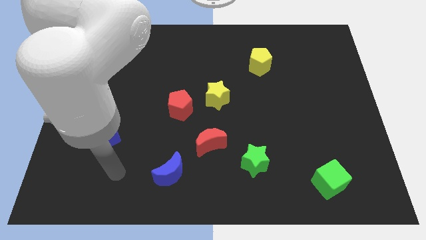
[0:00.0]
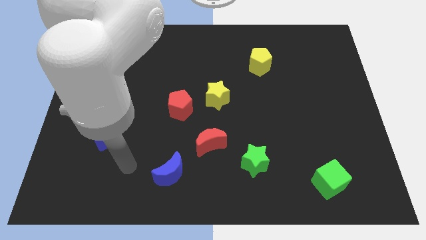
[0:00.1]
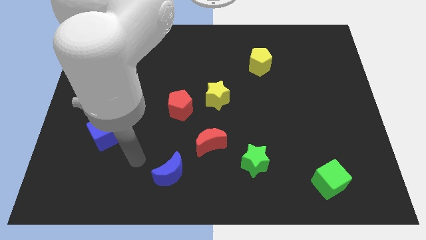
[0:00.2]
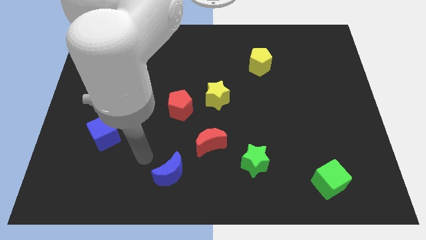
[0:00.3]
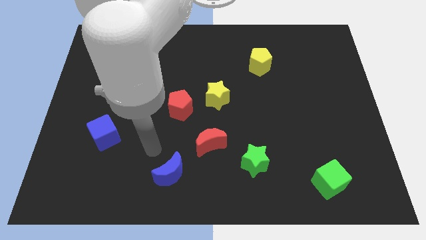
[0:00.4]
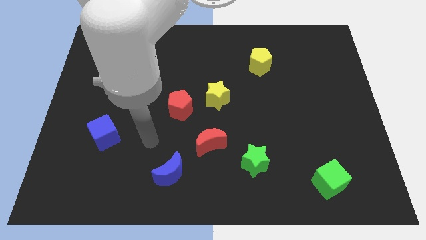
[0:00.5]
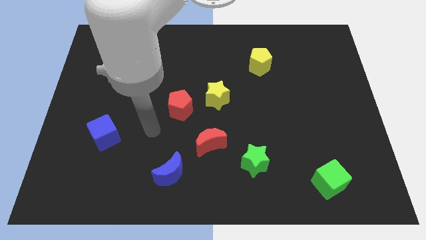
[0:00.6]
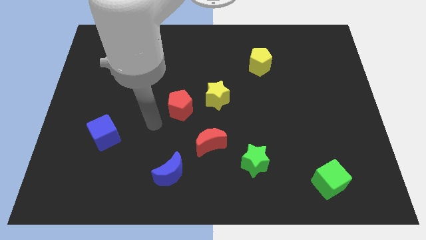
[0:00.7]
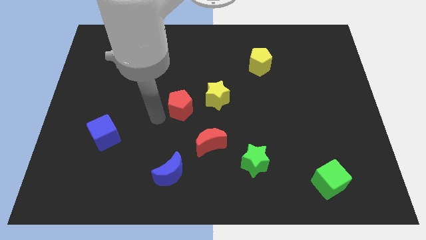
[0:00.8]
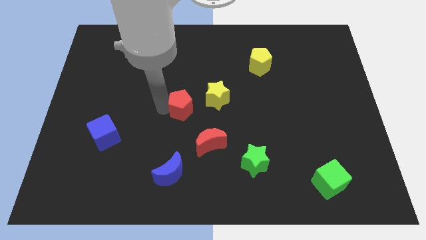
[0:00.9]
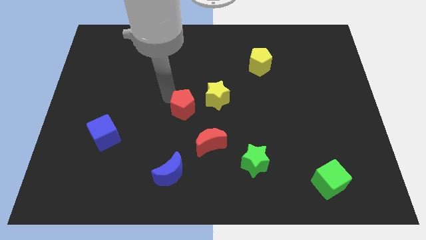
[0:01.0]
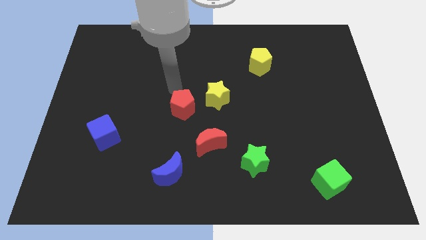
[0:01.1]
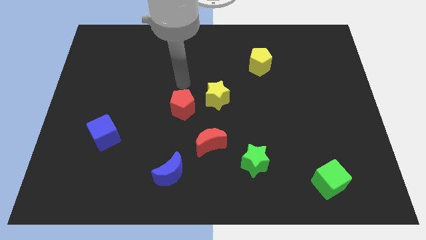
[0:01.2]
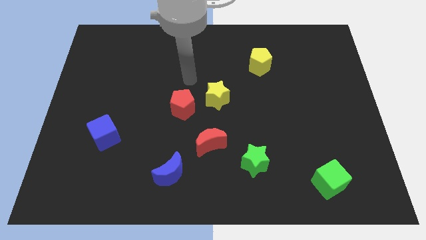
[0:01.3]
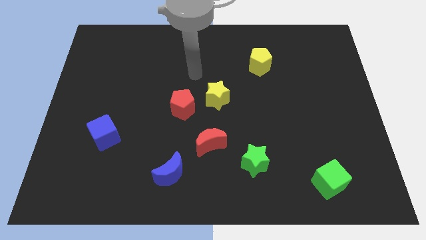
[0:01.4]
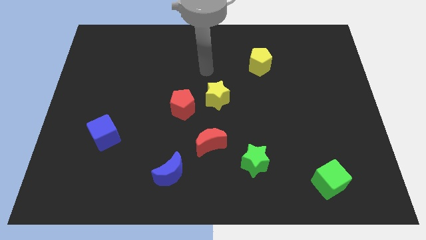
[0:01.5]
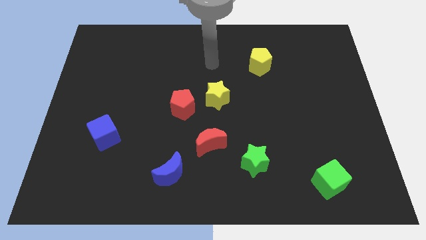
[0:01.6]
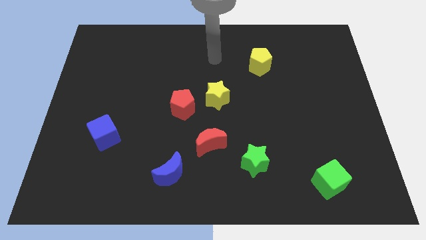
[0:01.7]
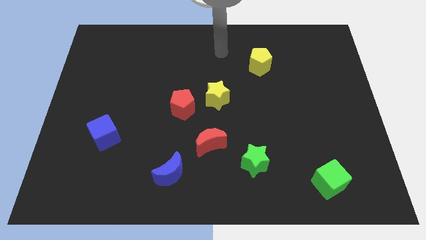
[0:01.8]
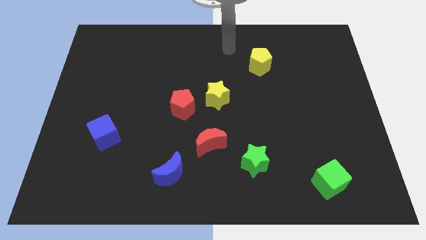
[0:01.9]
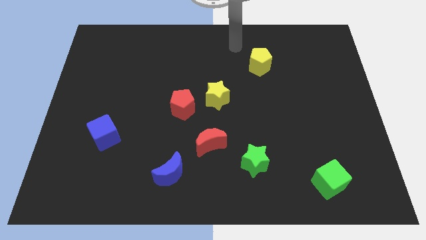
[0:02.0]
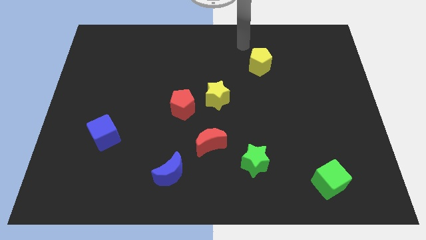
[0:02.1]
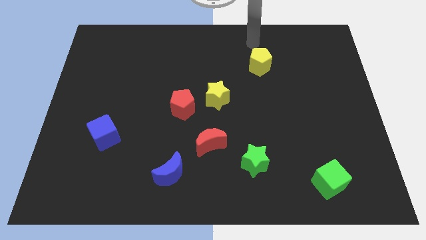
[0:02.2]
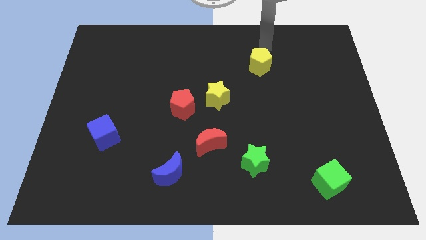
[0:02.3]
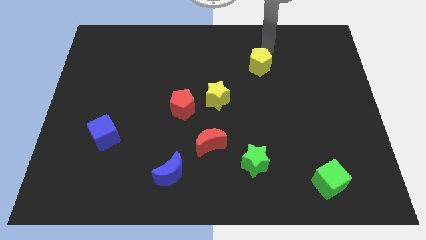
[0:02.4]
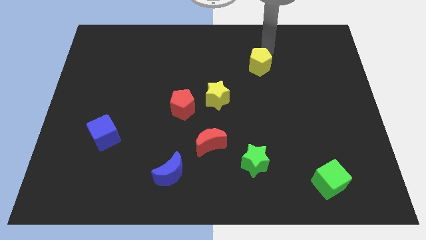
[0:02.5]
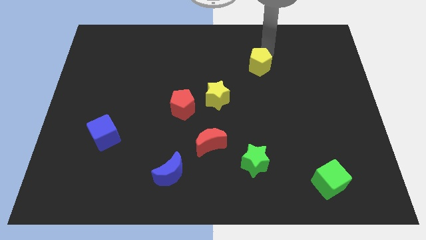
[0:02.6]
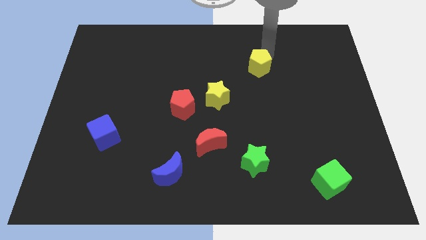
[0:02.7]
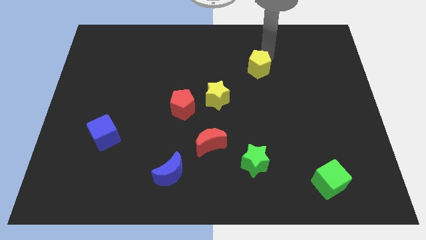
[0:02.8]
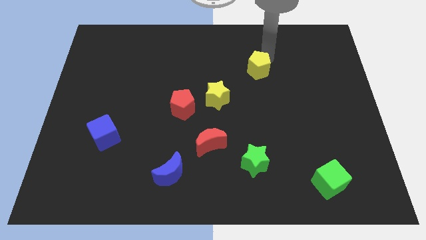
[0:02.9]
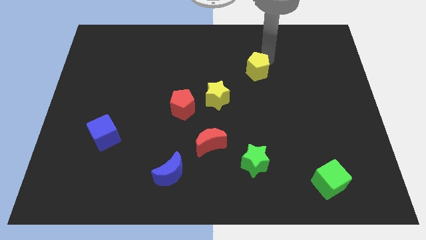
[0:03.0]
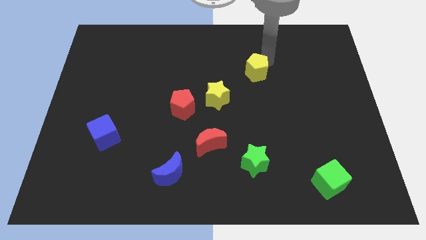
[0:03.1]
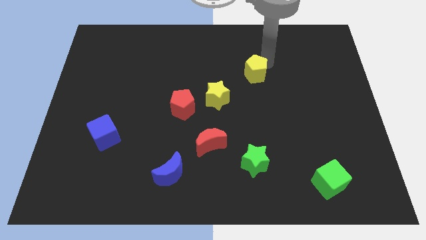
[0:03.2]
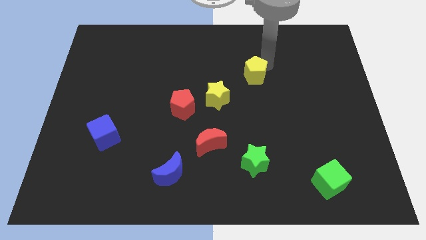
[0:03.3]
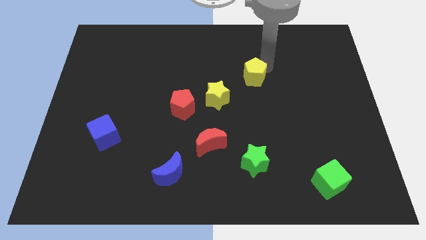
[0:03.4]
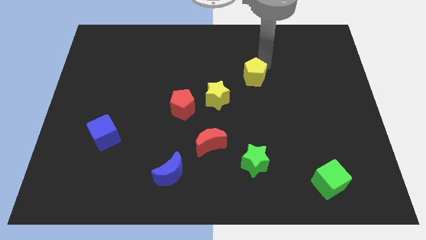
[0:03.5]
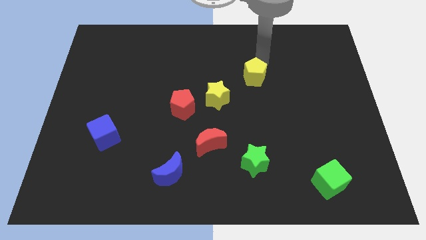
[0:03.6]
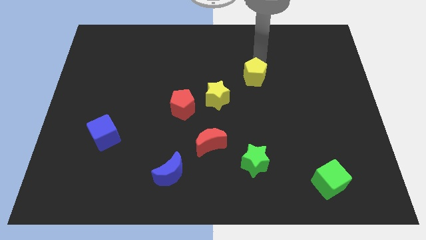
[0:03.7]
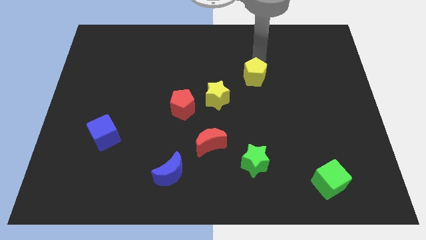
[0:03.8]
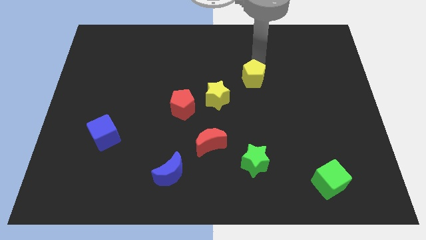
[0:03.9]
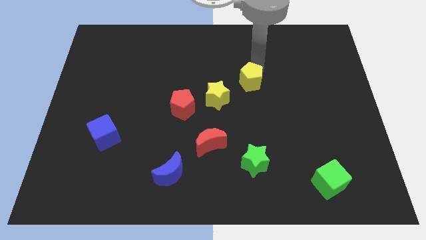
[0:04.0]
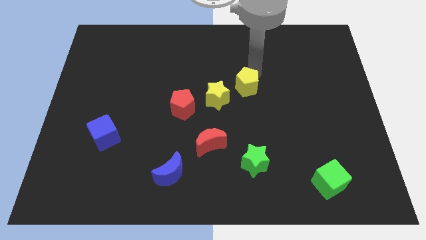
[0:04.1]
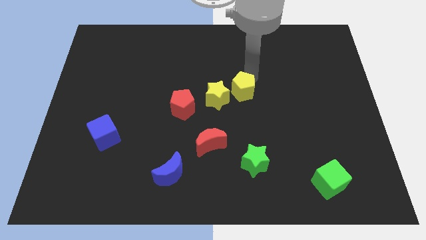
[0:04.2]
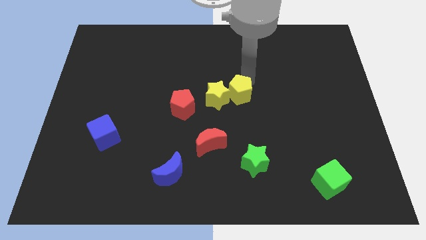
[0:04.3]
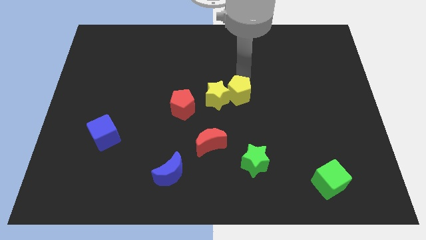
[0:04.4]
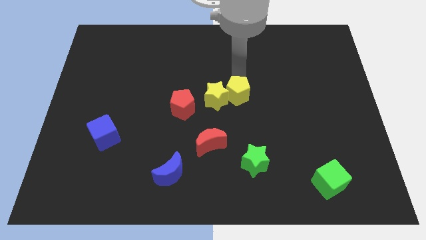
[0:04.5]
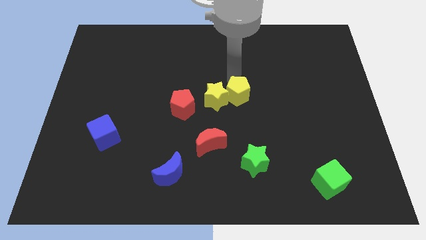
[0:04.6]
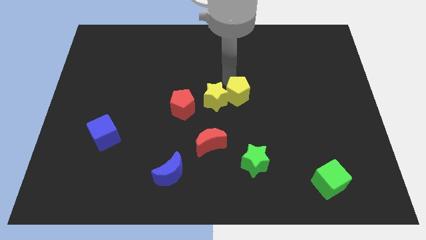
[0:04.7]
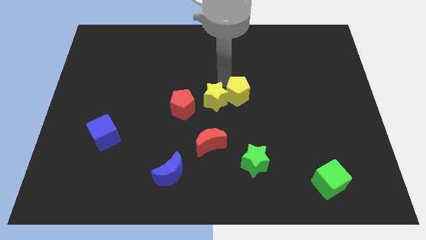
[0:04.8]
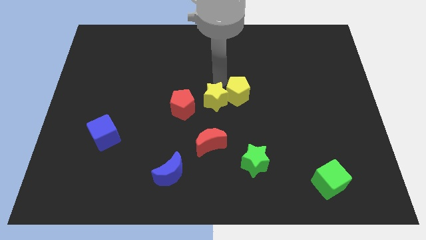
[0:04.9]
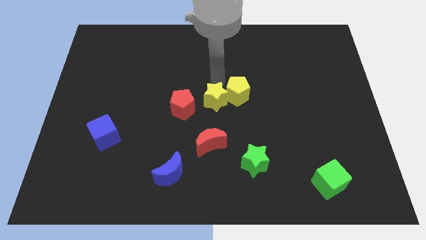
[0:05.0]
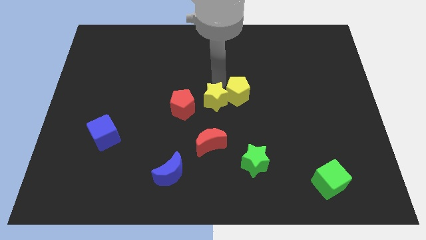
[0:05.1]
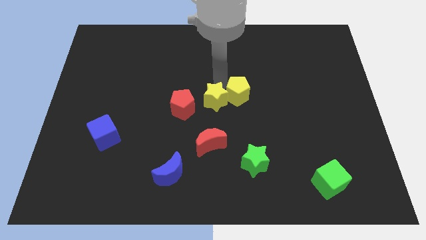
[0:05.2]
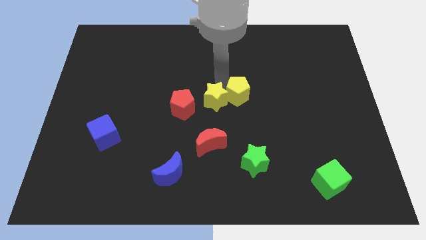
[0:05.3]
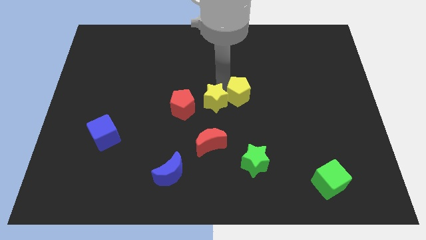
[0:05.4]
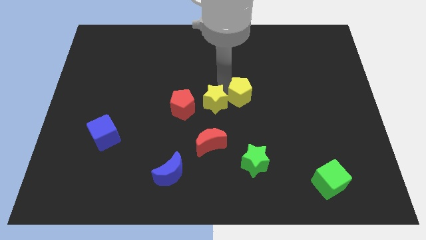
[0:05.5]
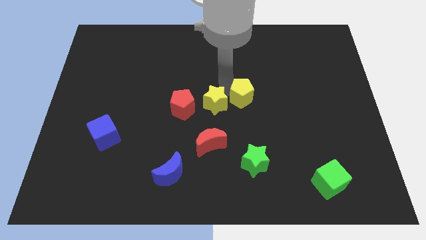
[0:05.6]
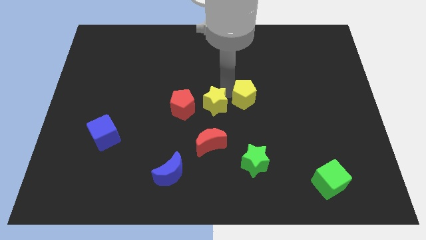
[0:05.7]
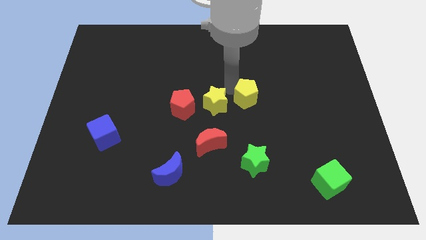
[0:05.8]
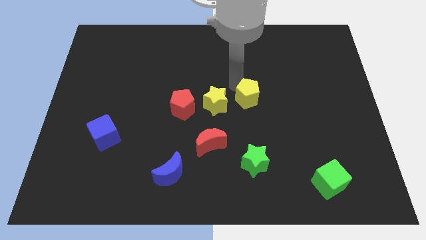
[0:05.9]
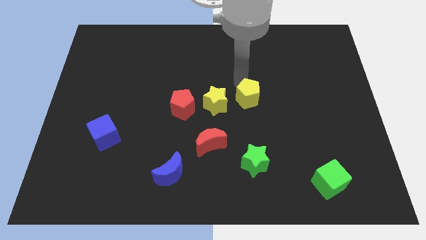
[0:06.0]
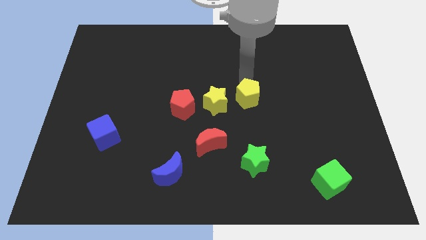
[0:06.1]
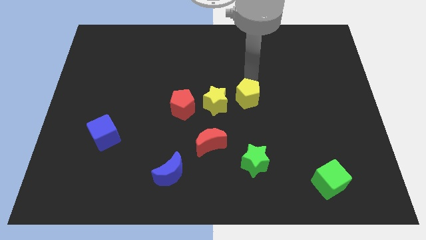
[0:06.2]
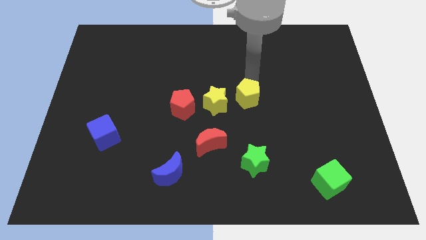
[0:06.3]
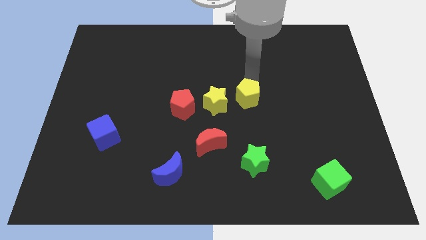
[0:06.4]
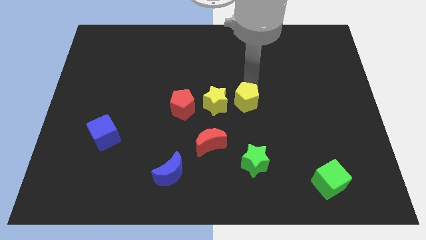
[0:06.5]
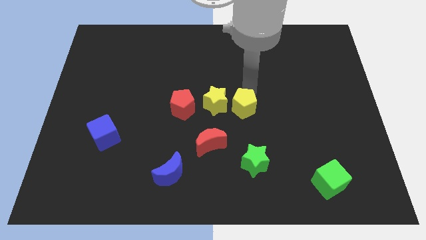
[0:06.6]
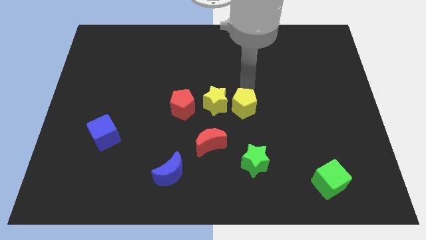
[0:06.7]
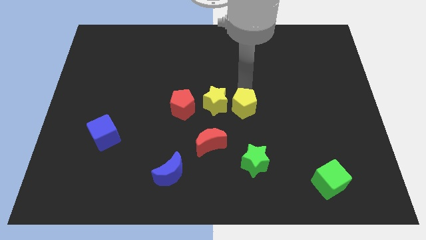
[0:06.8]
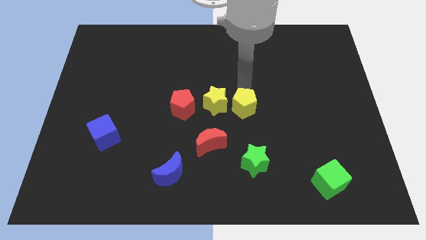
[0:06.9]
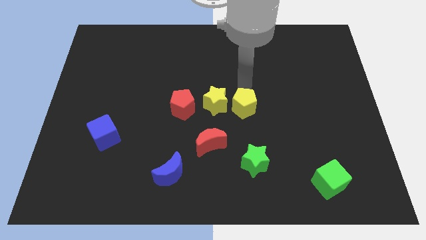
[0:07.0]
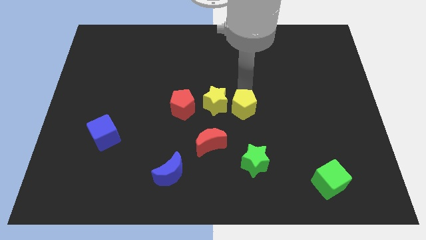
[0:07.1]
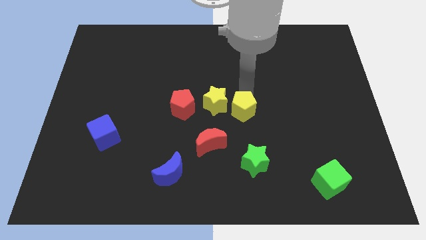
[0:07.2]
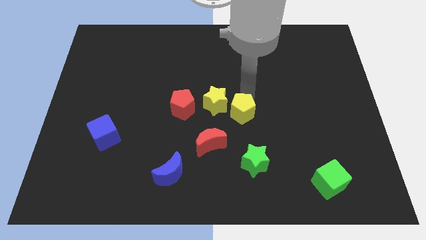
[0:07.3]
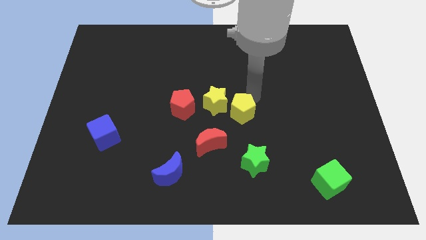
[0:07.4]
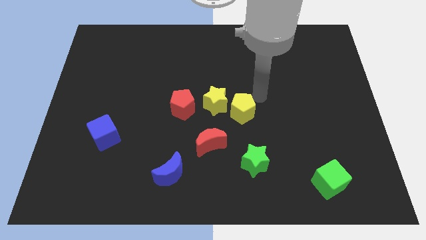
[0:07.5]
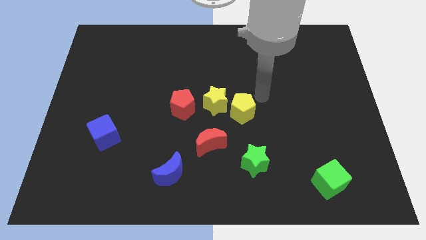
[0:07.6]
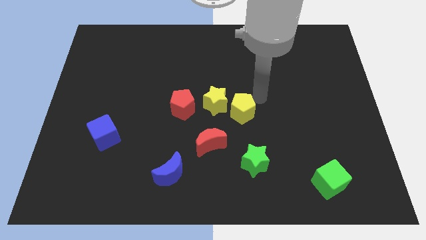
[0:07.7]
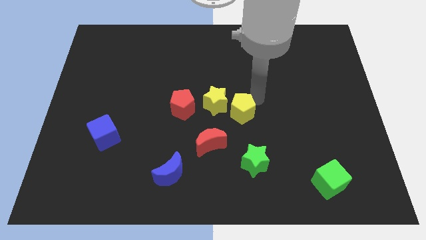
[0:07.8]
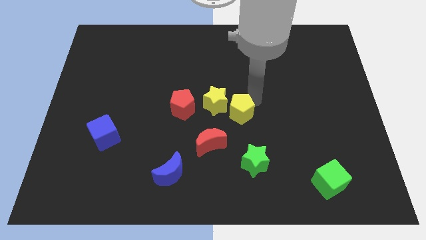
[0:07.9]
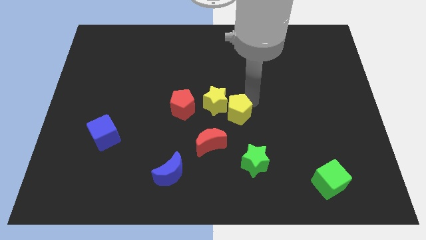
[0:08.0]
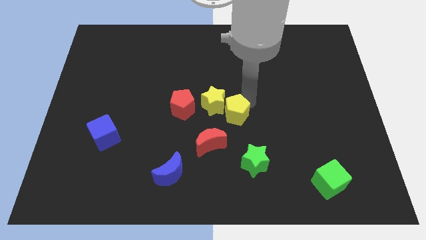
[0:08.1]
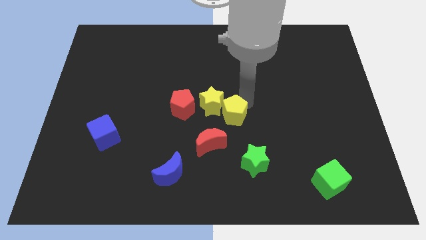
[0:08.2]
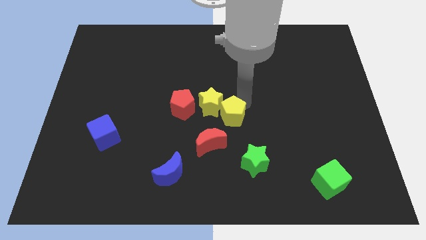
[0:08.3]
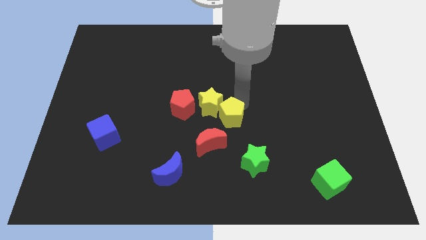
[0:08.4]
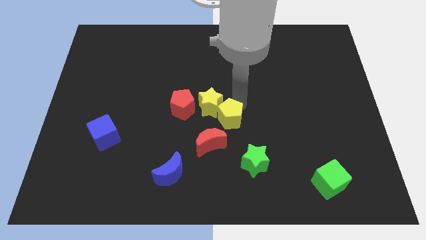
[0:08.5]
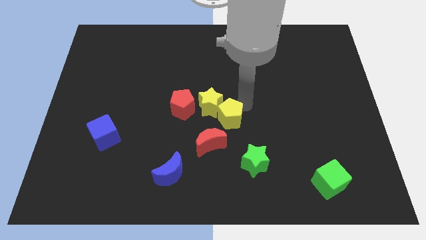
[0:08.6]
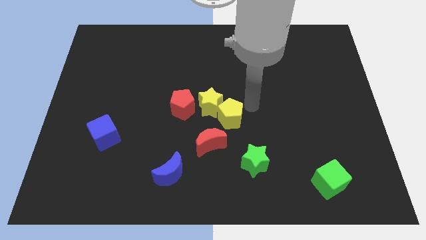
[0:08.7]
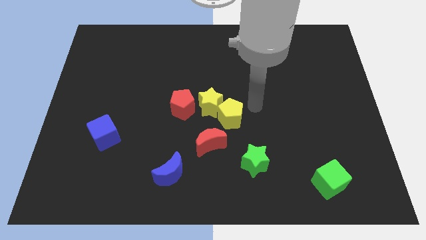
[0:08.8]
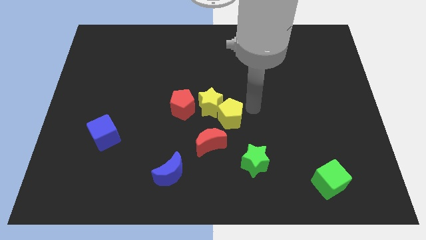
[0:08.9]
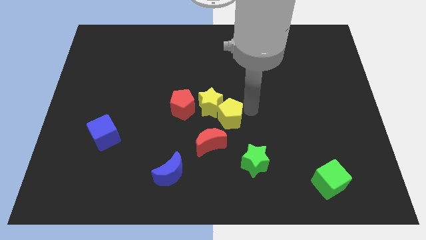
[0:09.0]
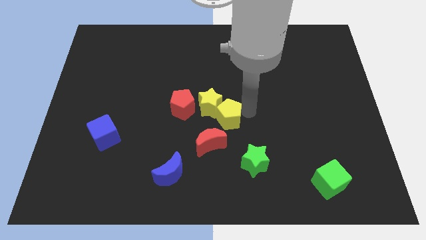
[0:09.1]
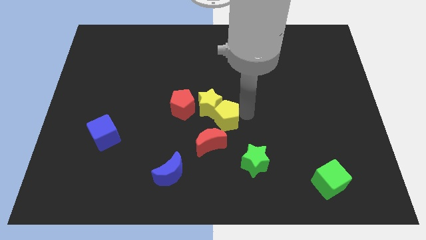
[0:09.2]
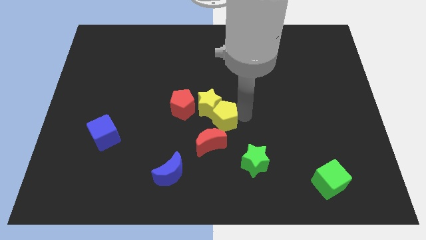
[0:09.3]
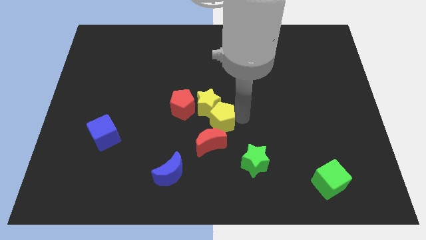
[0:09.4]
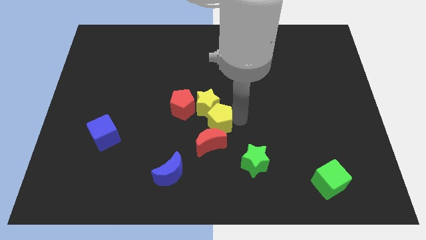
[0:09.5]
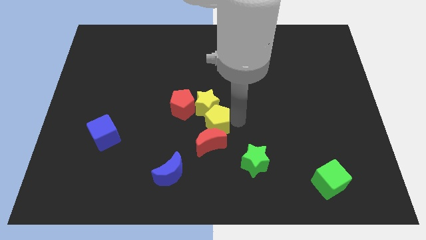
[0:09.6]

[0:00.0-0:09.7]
push the yellow pentagon downwards and to the left diagonally
